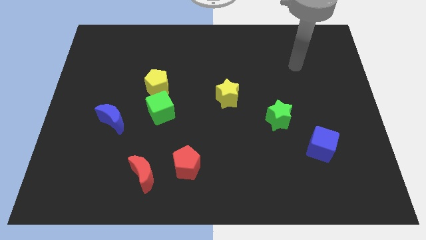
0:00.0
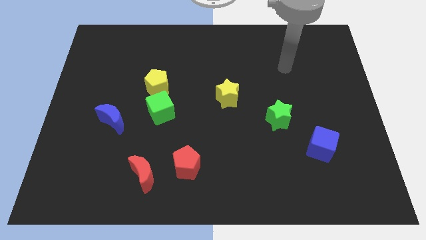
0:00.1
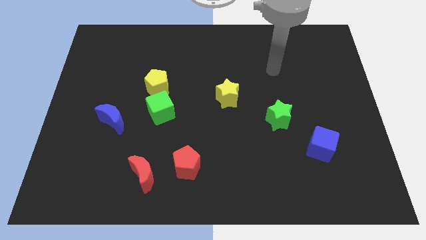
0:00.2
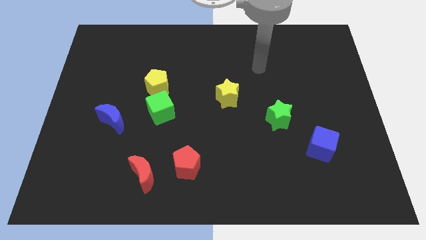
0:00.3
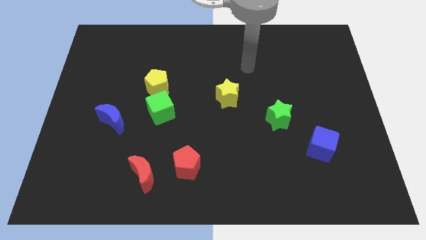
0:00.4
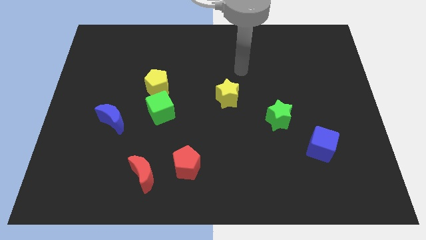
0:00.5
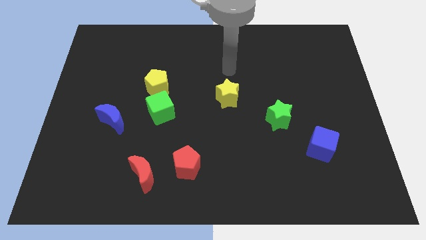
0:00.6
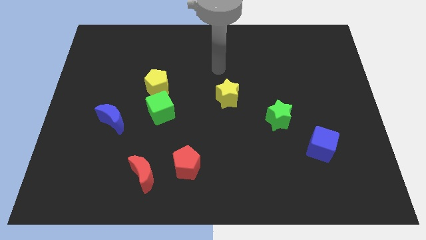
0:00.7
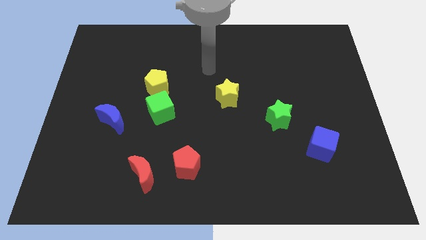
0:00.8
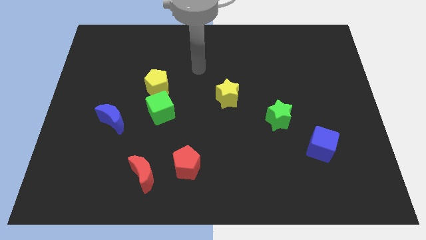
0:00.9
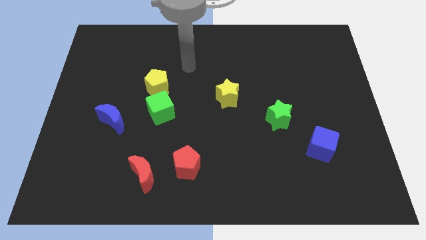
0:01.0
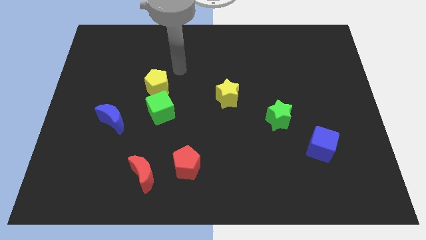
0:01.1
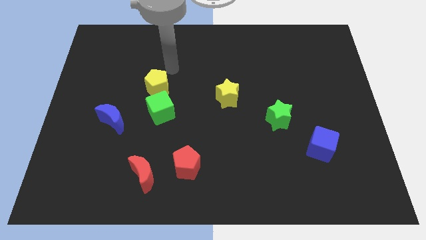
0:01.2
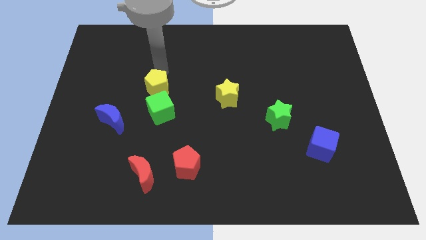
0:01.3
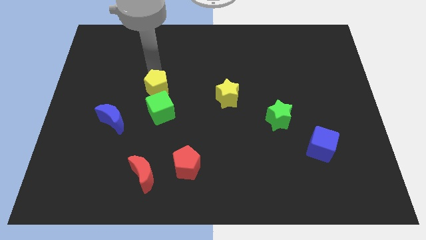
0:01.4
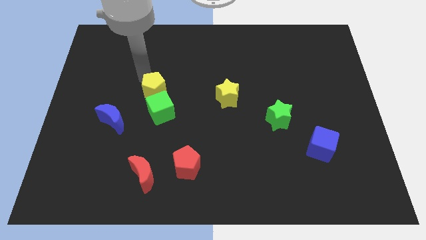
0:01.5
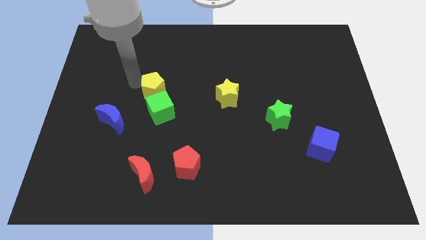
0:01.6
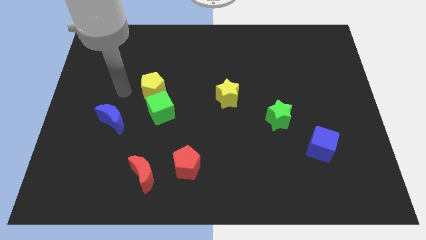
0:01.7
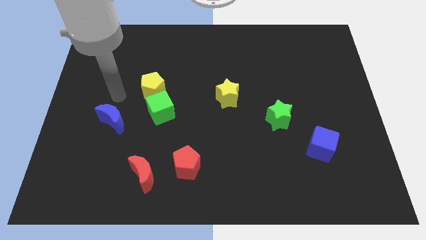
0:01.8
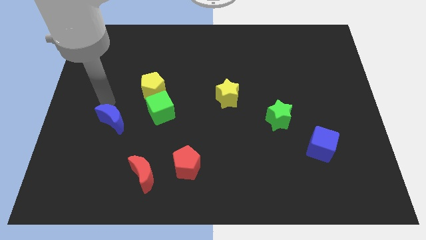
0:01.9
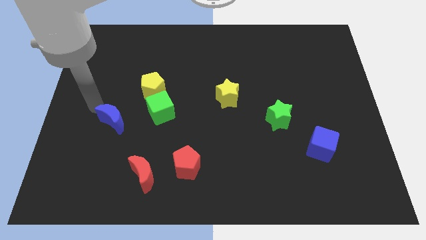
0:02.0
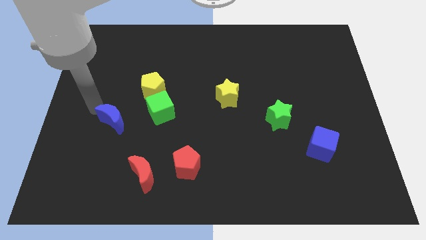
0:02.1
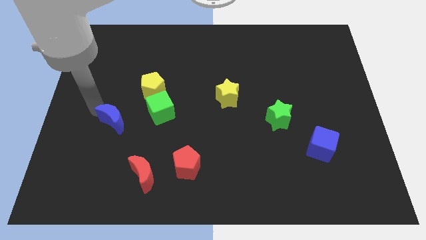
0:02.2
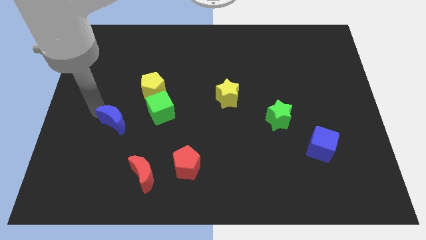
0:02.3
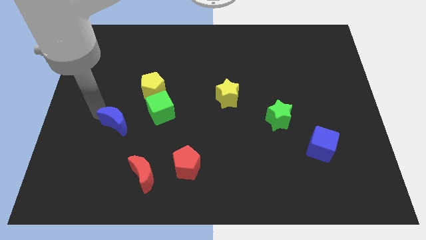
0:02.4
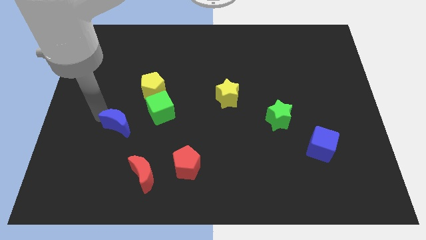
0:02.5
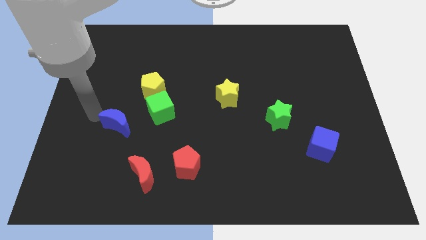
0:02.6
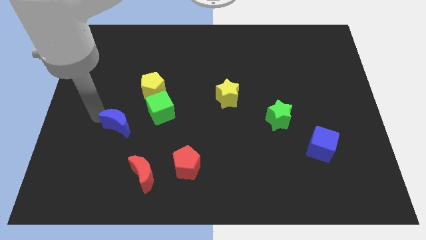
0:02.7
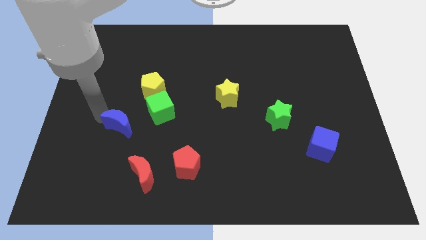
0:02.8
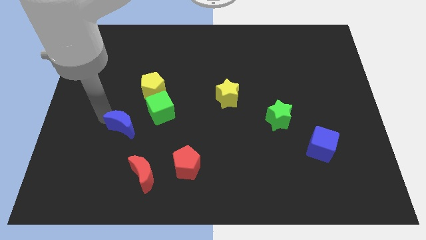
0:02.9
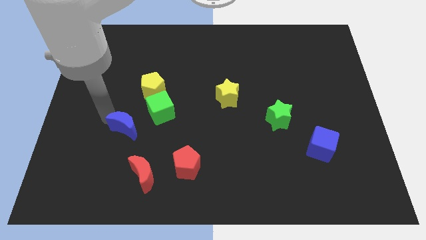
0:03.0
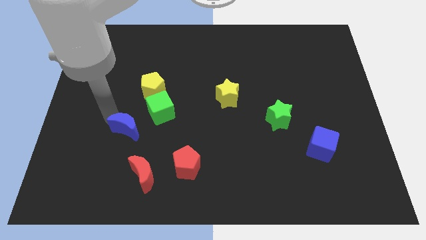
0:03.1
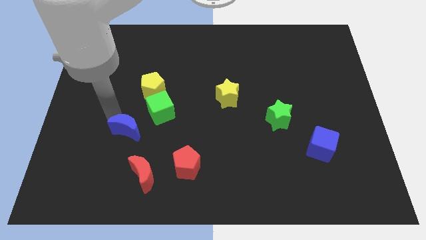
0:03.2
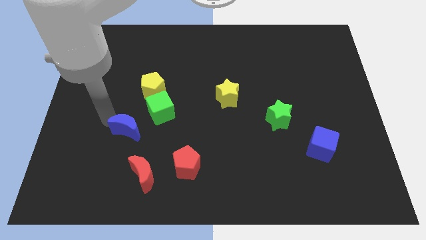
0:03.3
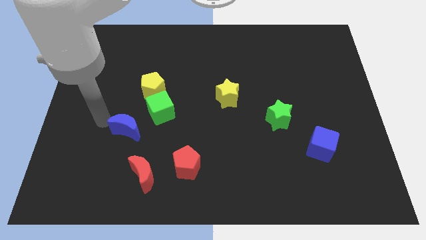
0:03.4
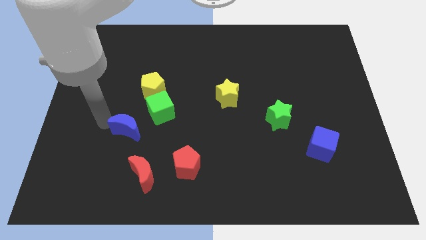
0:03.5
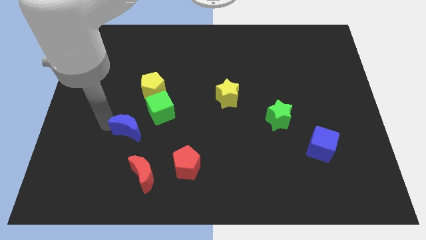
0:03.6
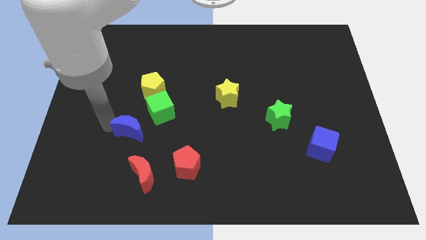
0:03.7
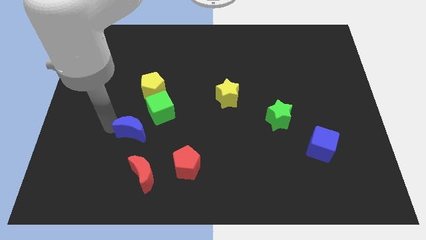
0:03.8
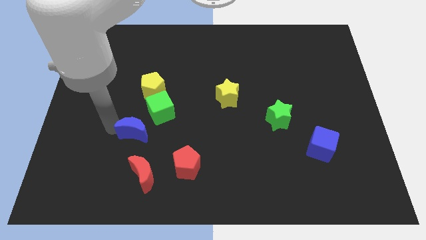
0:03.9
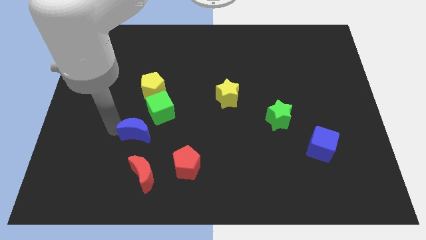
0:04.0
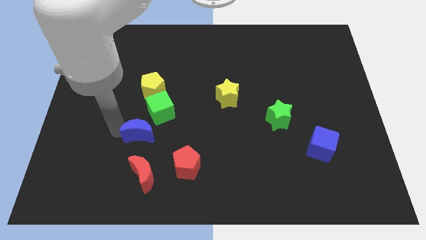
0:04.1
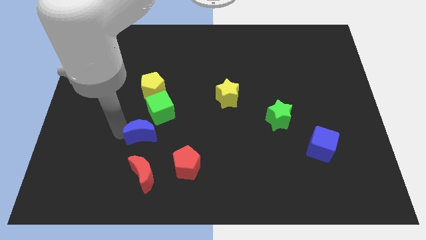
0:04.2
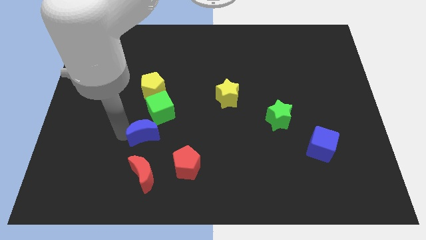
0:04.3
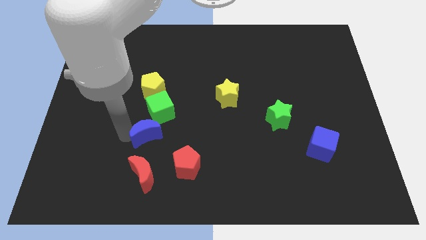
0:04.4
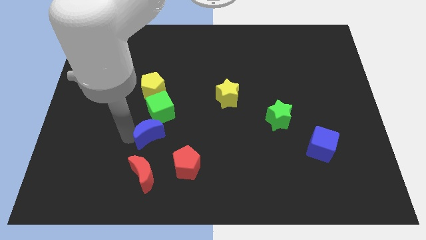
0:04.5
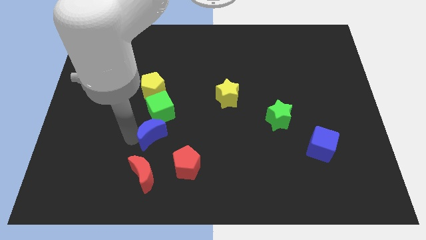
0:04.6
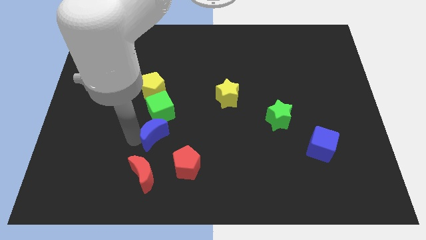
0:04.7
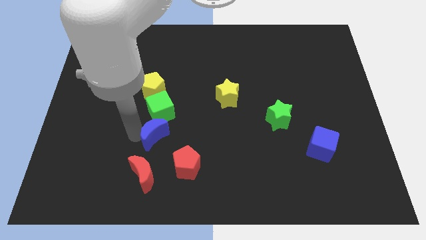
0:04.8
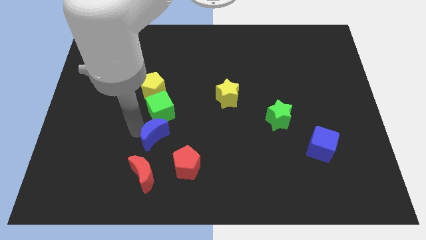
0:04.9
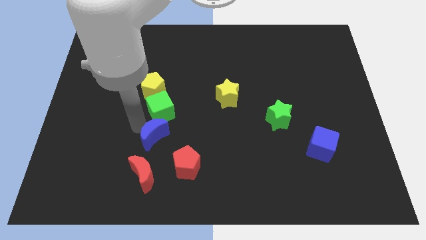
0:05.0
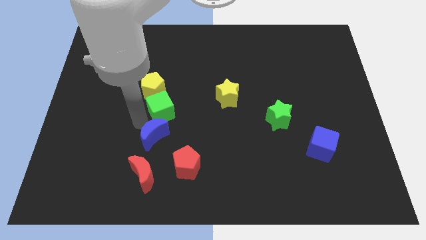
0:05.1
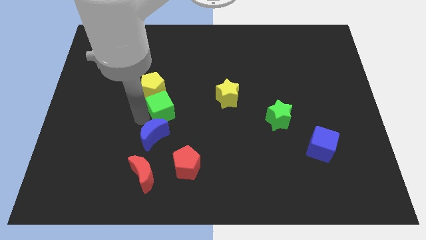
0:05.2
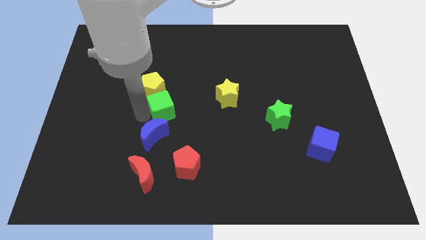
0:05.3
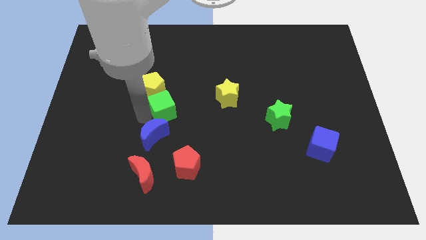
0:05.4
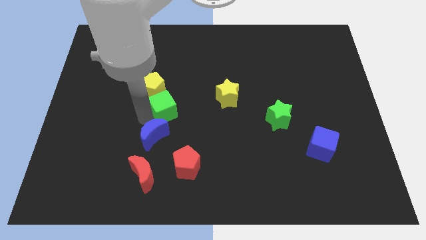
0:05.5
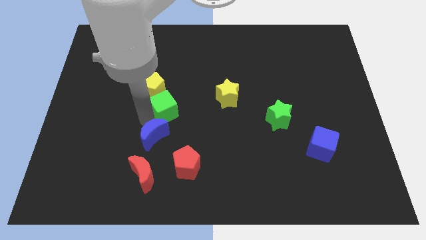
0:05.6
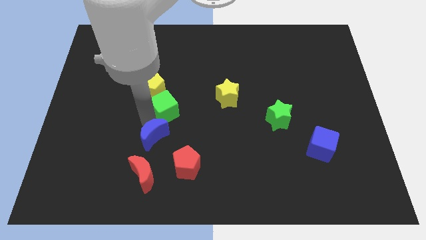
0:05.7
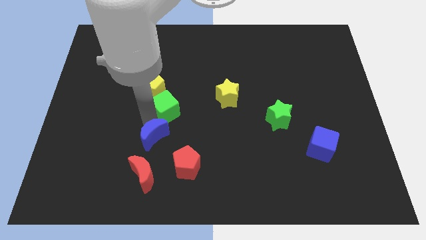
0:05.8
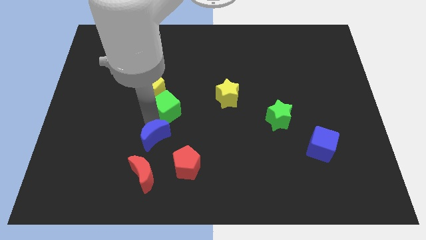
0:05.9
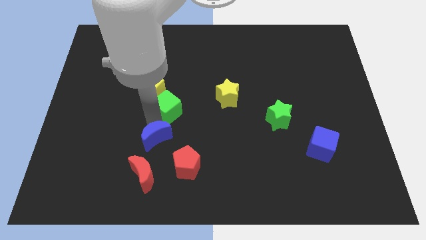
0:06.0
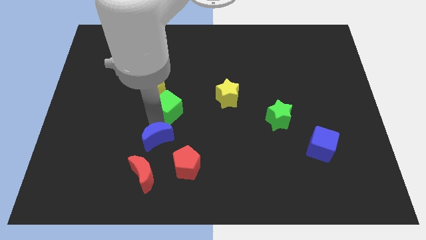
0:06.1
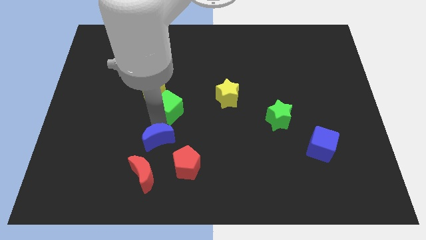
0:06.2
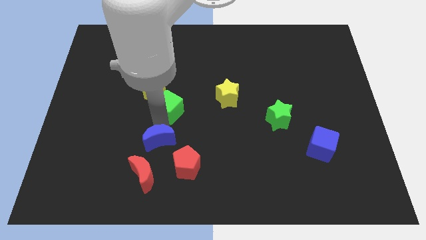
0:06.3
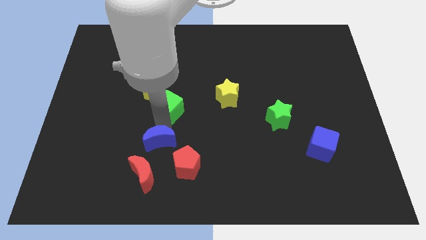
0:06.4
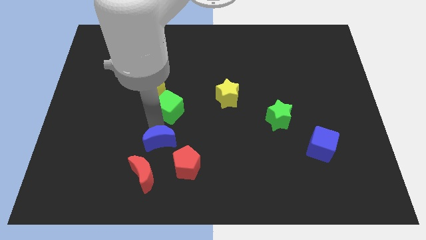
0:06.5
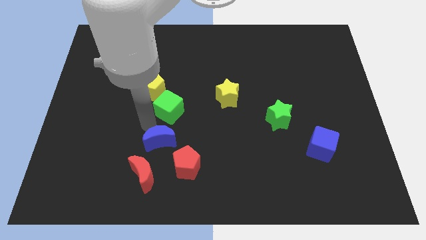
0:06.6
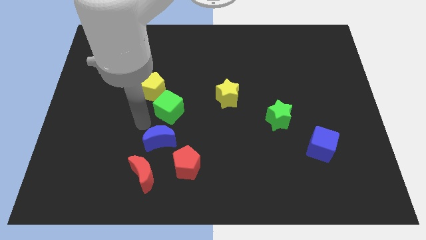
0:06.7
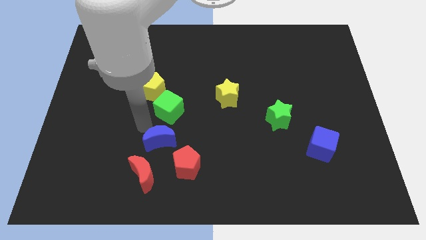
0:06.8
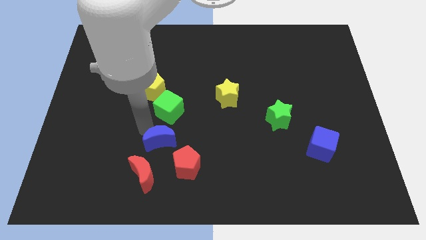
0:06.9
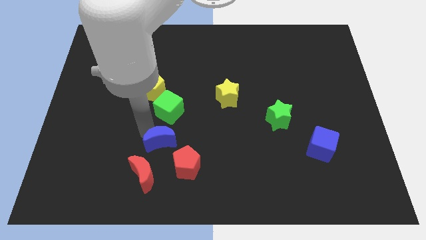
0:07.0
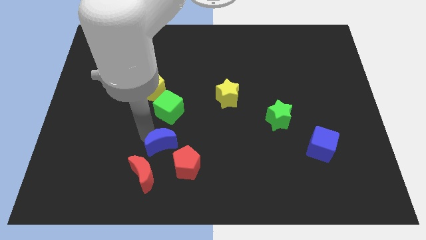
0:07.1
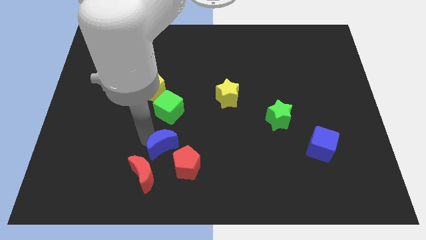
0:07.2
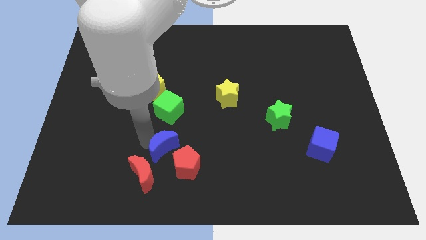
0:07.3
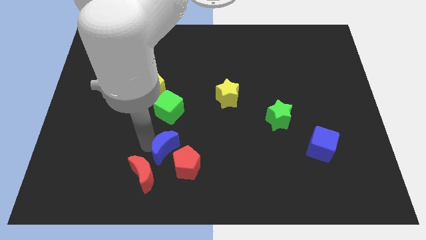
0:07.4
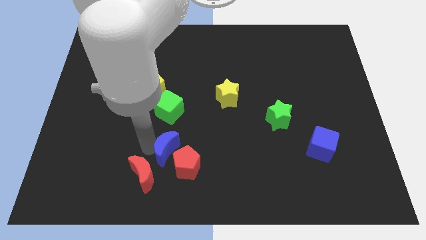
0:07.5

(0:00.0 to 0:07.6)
slide the blue moon next to the red pentagon

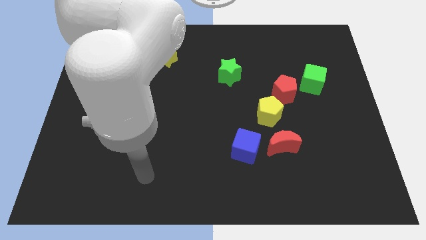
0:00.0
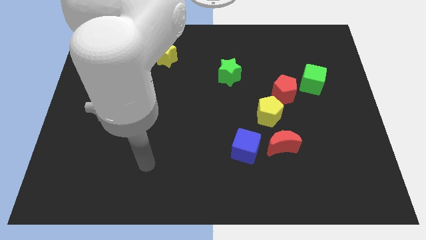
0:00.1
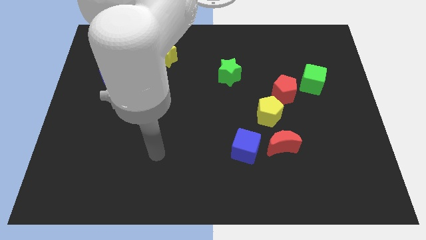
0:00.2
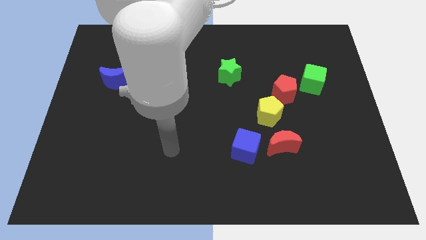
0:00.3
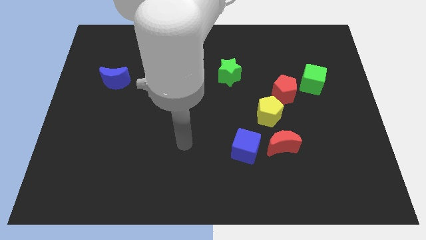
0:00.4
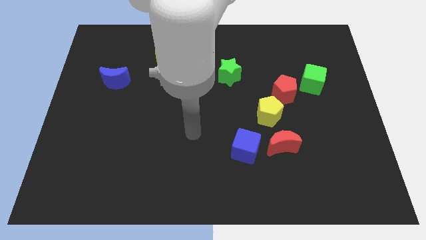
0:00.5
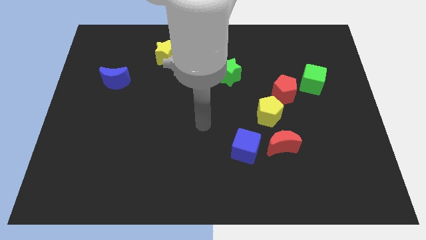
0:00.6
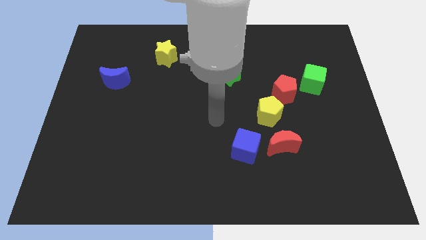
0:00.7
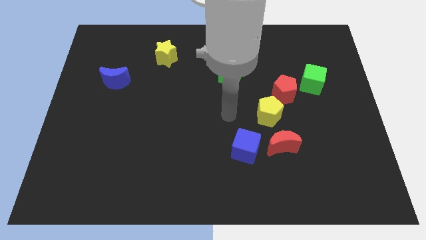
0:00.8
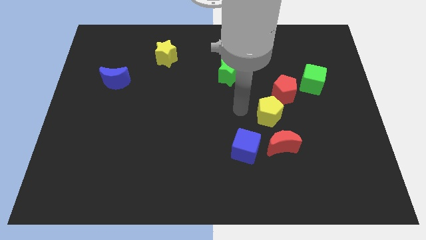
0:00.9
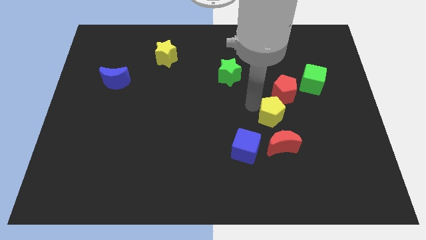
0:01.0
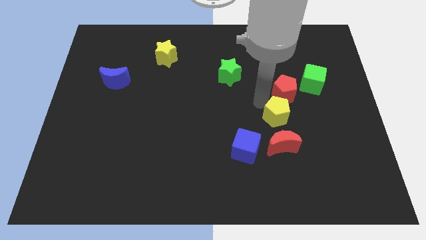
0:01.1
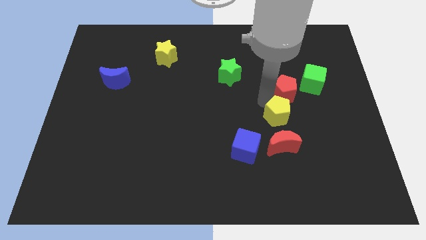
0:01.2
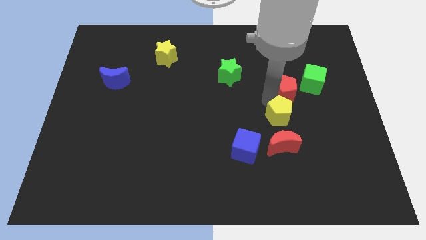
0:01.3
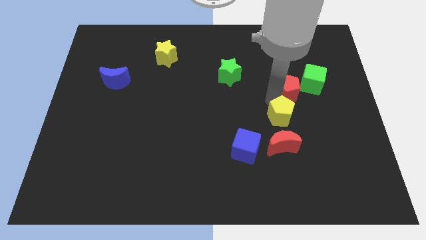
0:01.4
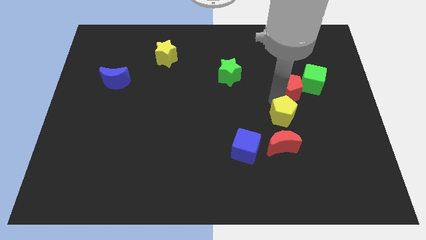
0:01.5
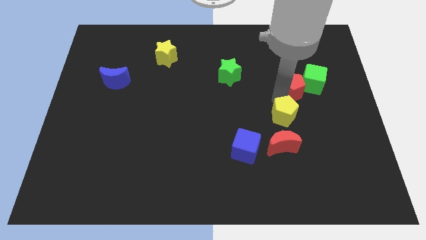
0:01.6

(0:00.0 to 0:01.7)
push the red pentagon next to the green cube
